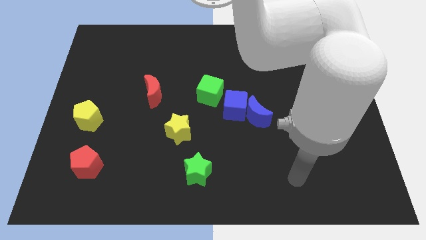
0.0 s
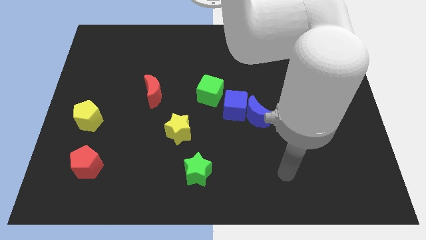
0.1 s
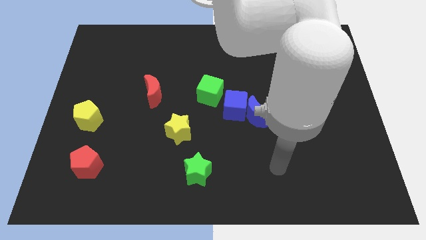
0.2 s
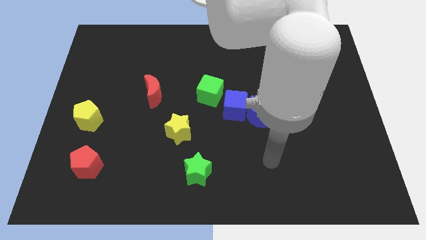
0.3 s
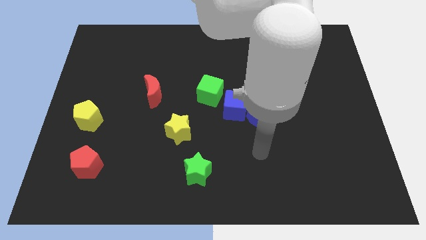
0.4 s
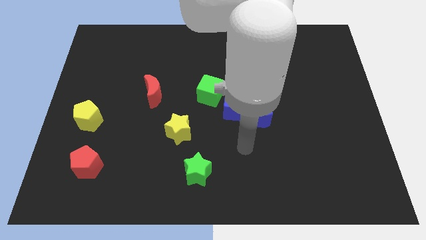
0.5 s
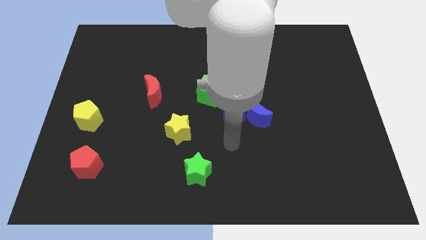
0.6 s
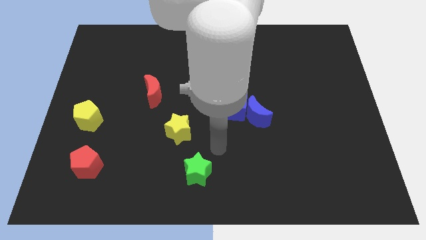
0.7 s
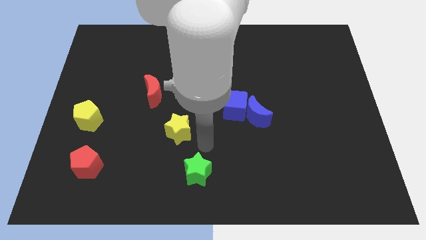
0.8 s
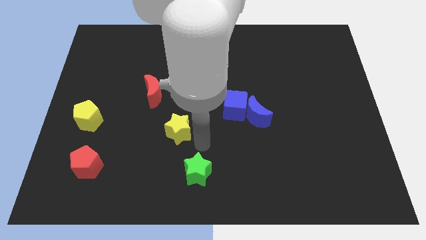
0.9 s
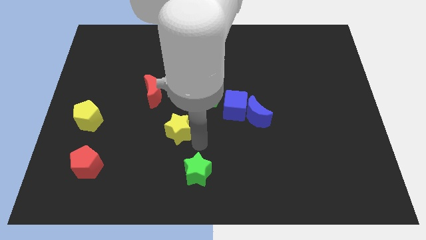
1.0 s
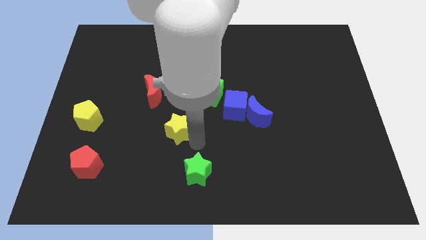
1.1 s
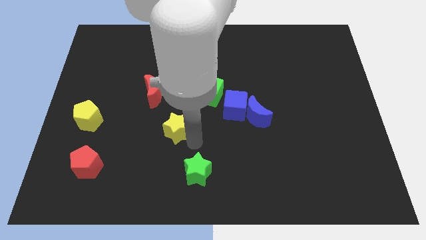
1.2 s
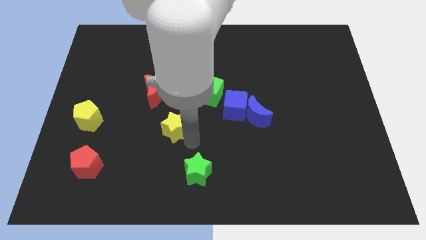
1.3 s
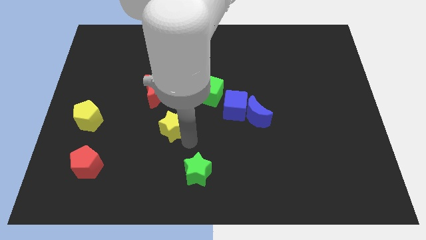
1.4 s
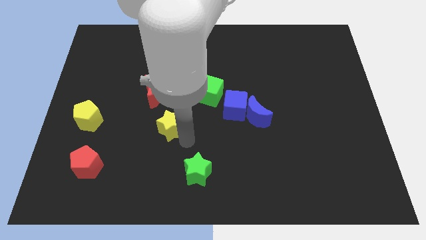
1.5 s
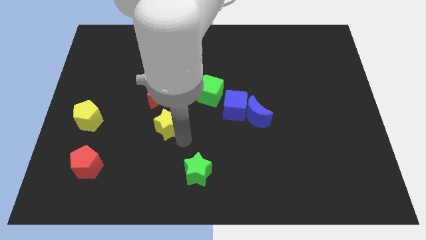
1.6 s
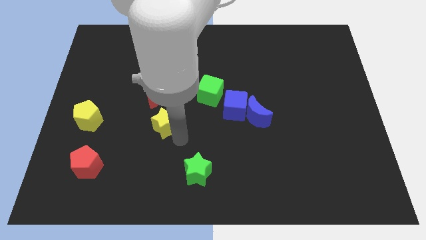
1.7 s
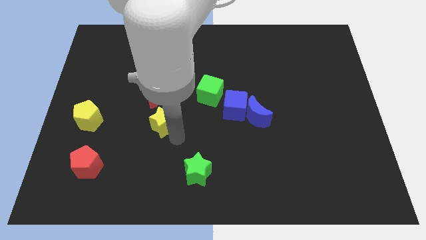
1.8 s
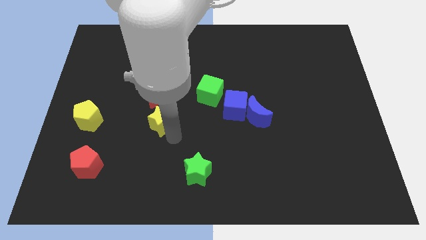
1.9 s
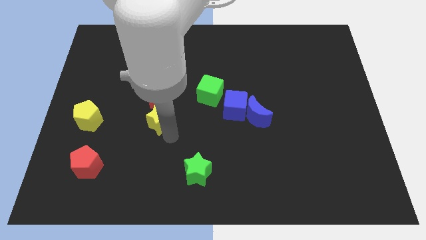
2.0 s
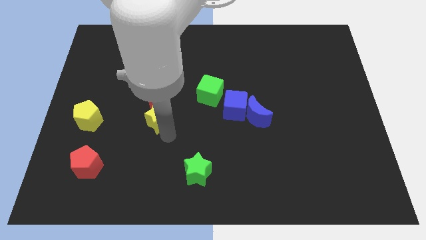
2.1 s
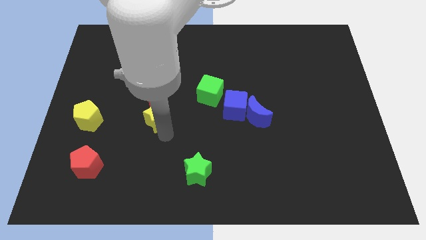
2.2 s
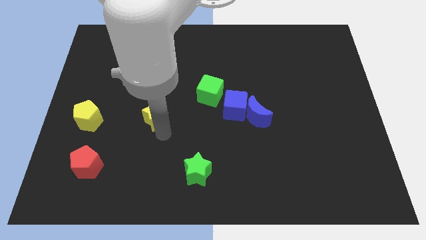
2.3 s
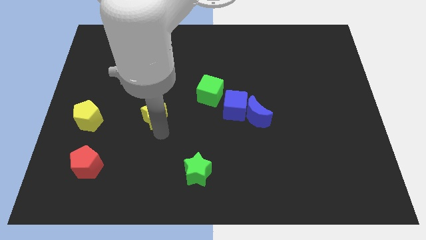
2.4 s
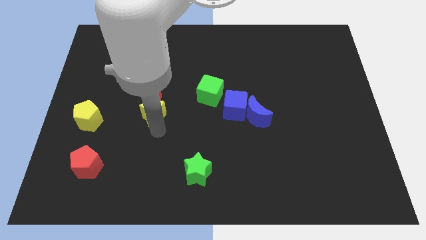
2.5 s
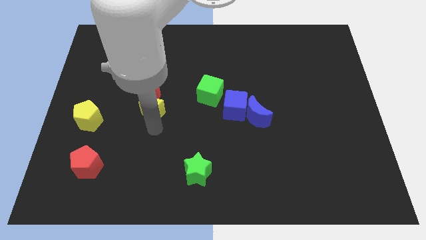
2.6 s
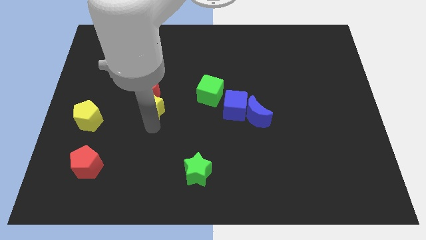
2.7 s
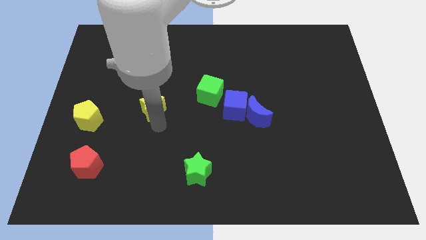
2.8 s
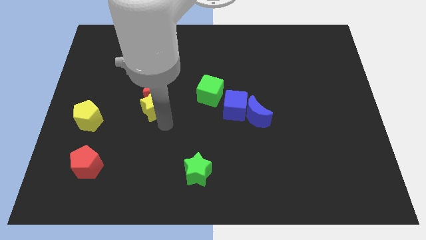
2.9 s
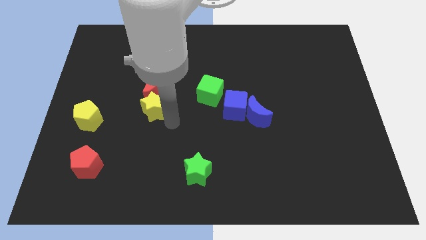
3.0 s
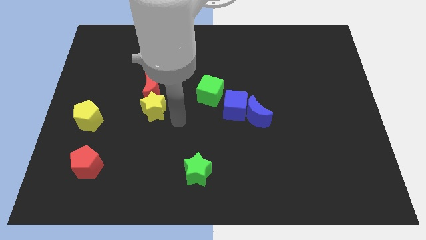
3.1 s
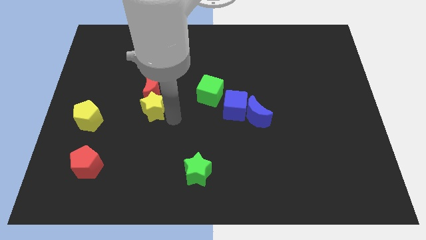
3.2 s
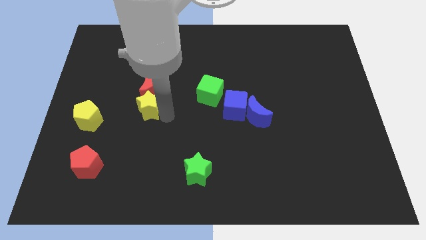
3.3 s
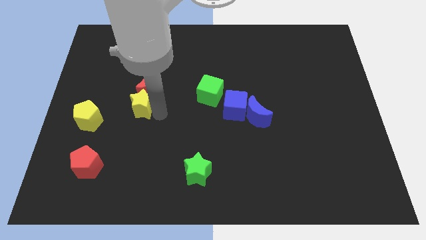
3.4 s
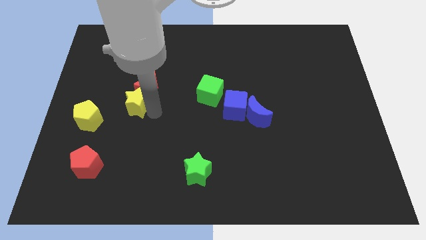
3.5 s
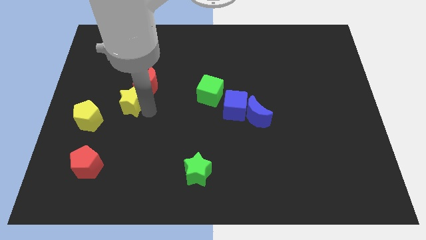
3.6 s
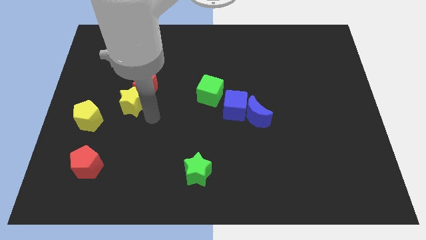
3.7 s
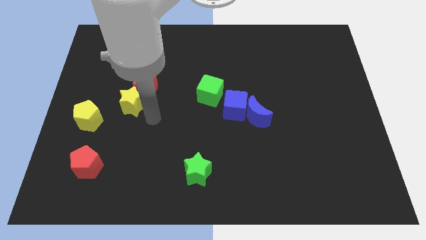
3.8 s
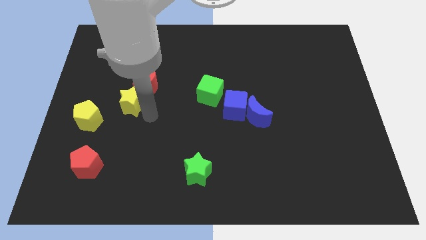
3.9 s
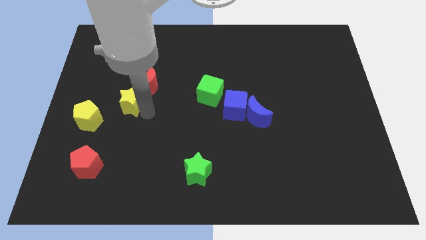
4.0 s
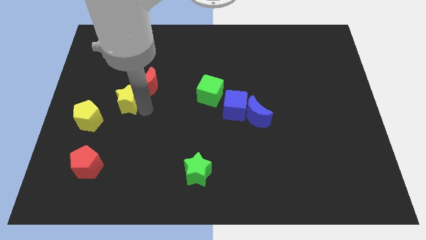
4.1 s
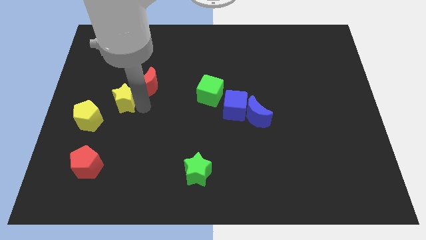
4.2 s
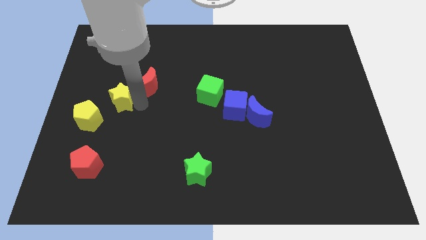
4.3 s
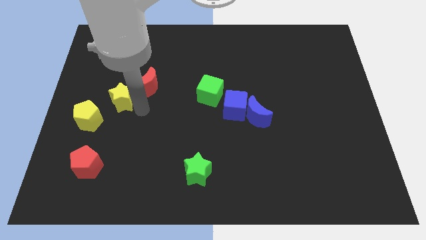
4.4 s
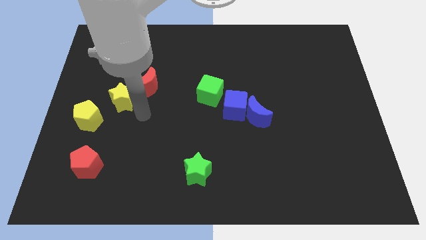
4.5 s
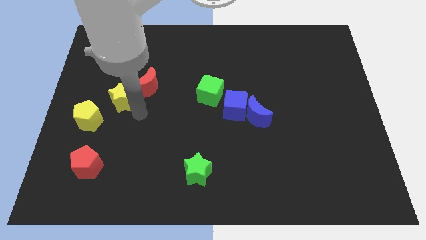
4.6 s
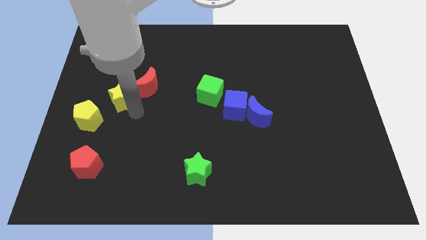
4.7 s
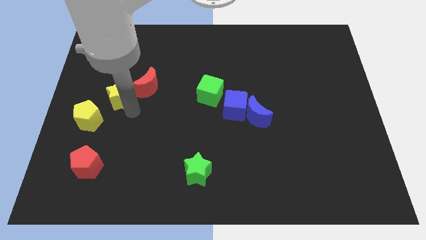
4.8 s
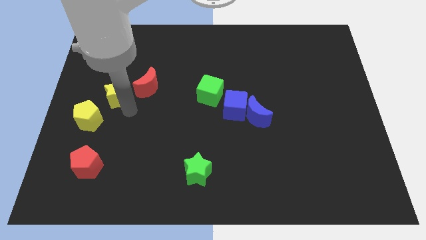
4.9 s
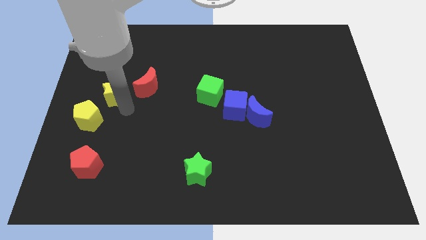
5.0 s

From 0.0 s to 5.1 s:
slide the yellow star to the top side of the yellow pentagon

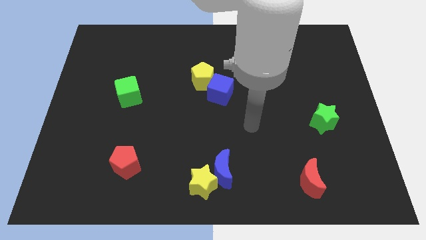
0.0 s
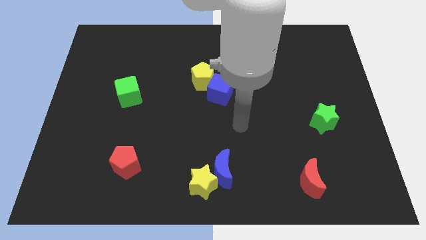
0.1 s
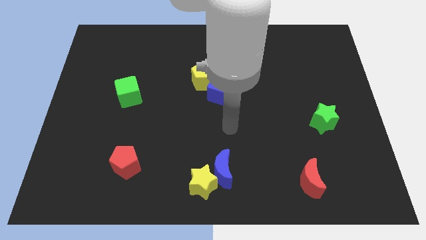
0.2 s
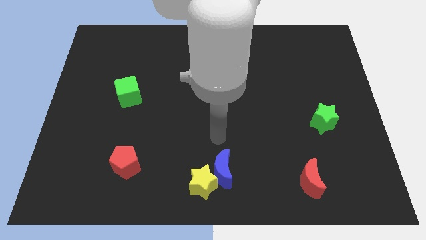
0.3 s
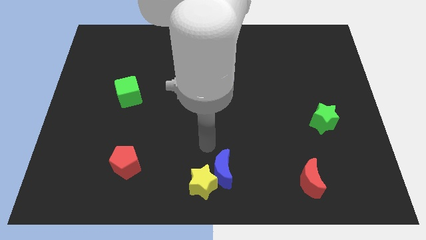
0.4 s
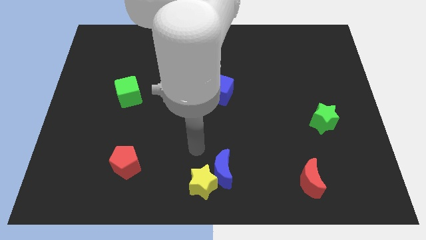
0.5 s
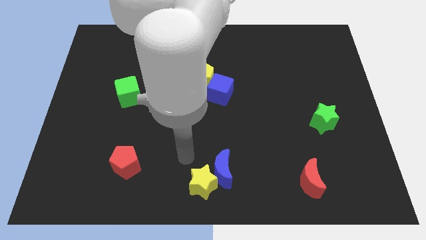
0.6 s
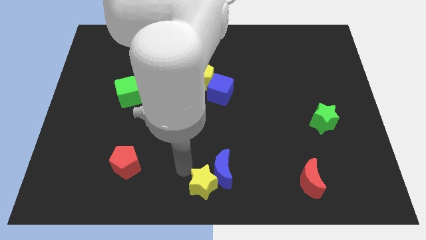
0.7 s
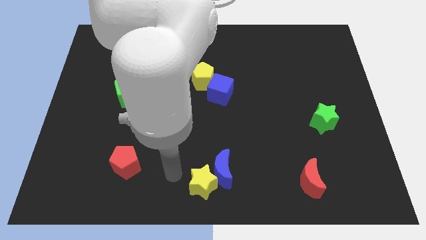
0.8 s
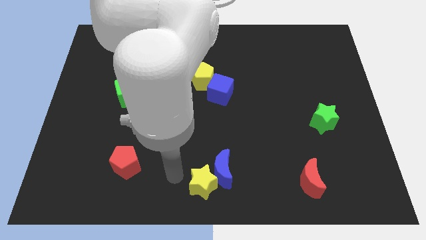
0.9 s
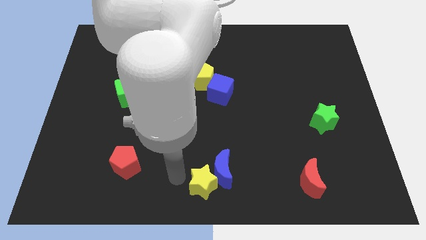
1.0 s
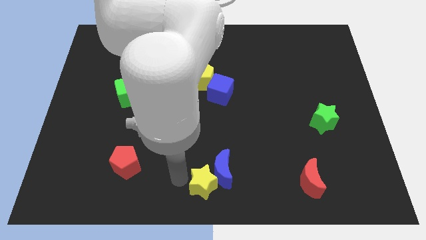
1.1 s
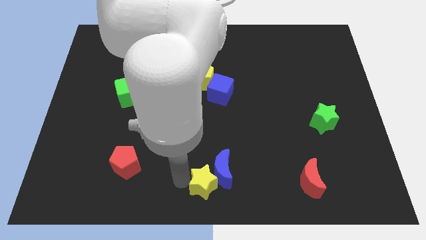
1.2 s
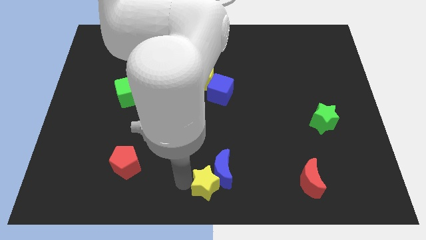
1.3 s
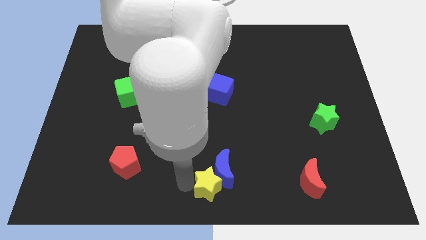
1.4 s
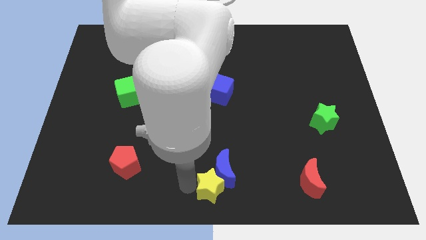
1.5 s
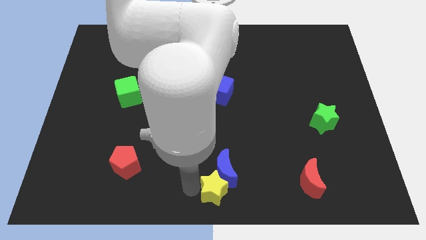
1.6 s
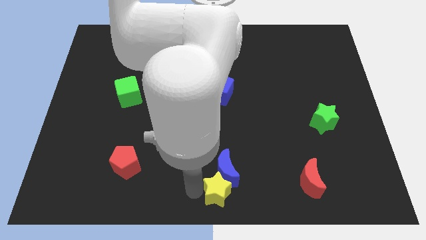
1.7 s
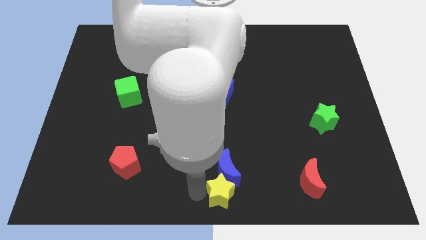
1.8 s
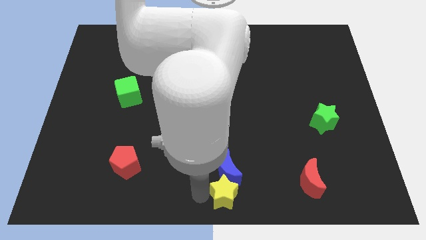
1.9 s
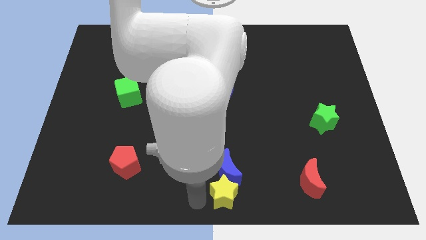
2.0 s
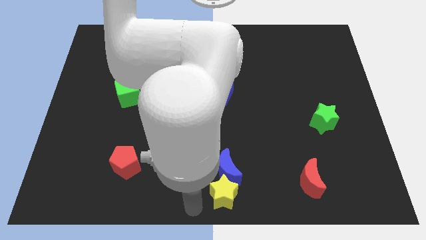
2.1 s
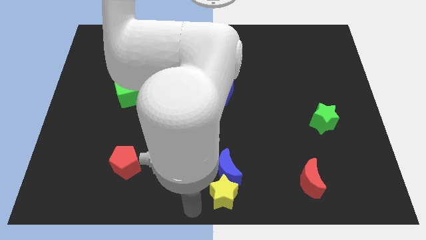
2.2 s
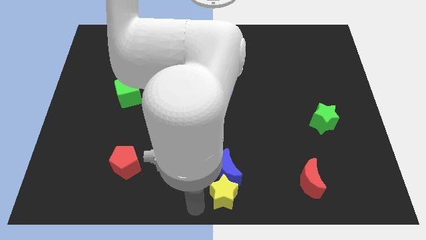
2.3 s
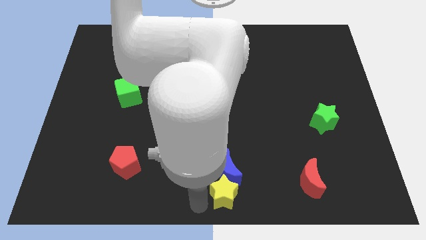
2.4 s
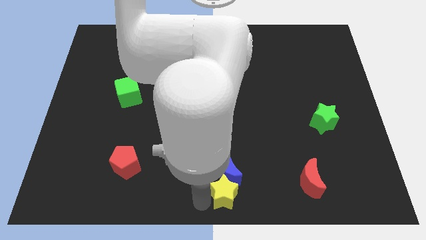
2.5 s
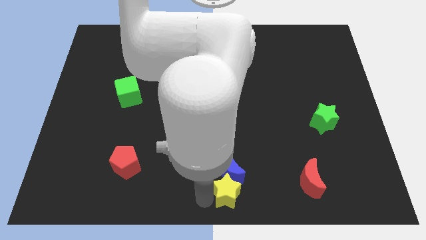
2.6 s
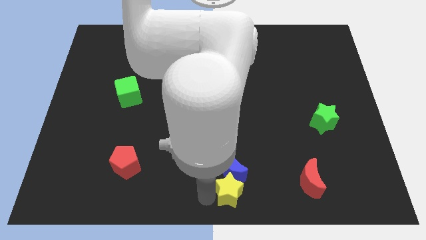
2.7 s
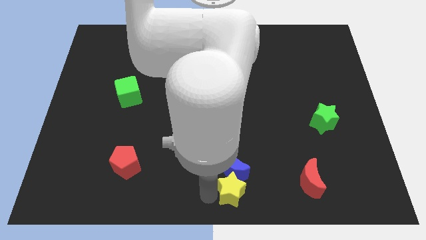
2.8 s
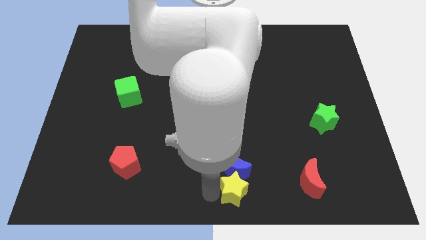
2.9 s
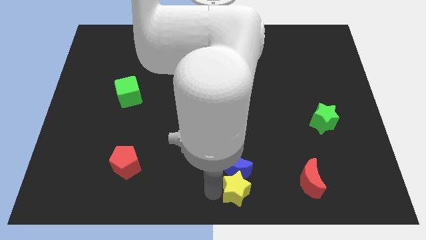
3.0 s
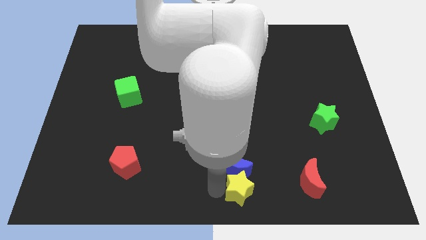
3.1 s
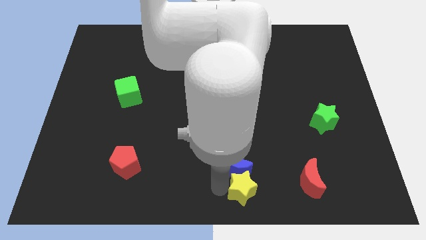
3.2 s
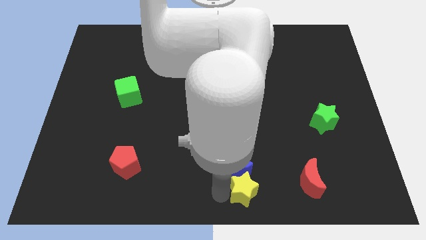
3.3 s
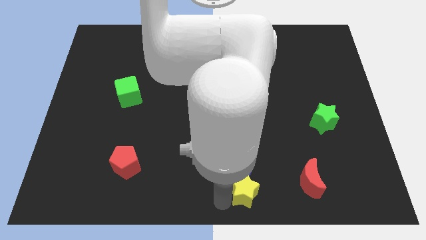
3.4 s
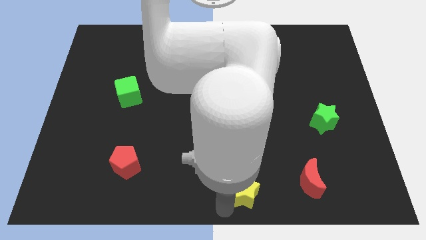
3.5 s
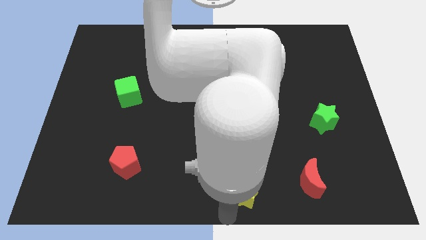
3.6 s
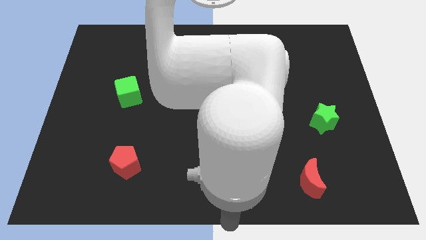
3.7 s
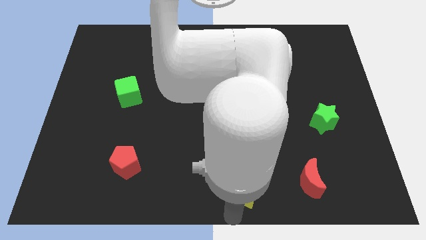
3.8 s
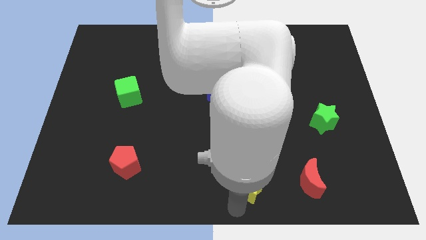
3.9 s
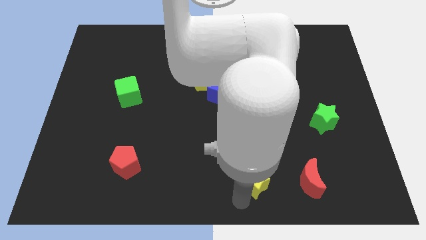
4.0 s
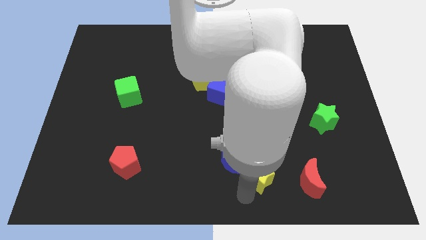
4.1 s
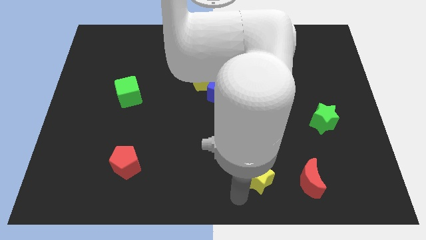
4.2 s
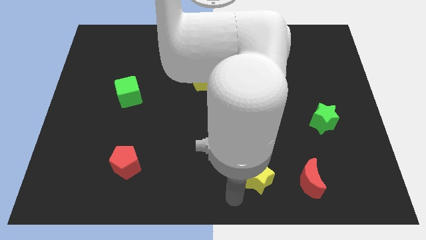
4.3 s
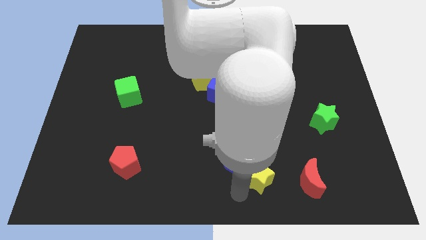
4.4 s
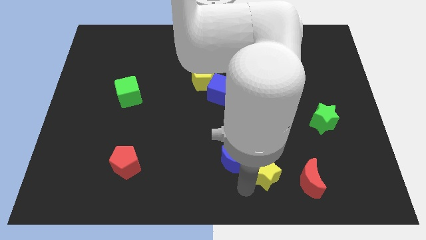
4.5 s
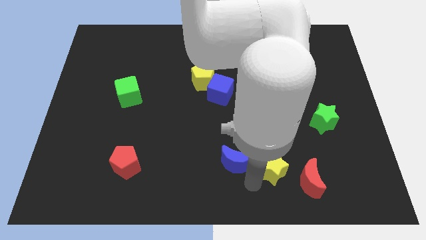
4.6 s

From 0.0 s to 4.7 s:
push the yellow star to the top left side of the red moon
